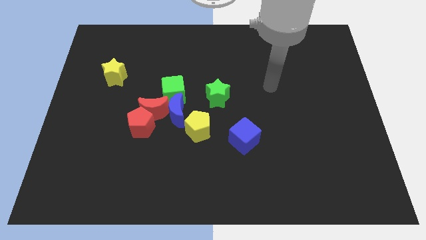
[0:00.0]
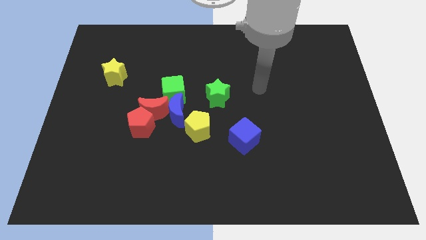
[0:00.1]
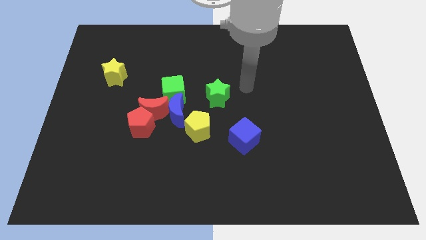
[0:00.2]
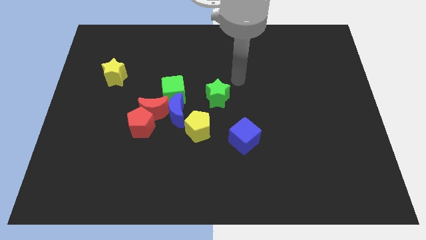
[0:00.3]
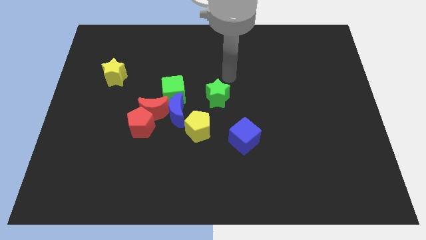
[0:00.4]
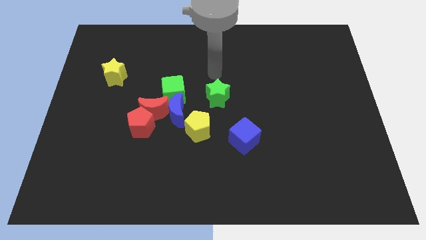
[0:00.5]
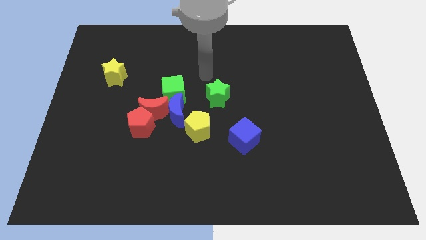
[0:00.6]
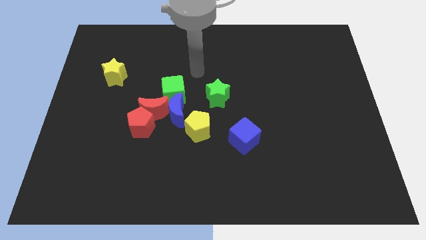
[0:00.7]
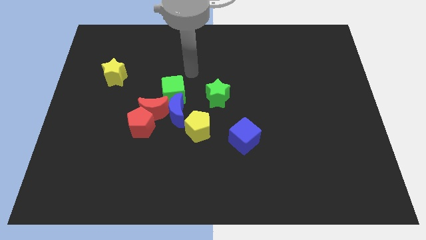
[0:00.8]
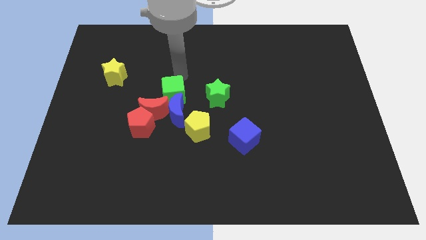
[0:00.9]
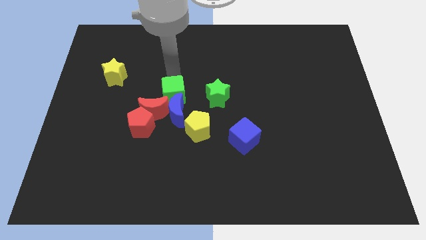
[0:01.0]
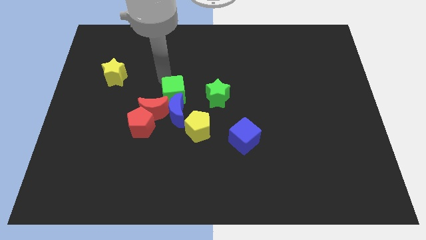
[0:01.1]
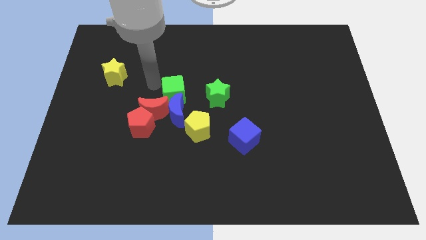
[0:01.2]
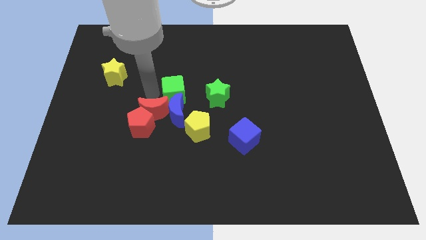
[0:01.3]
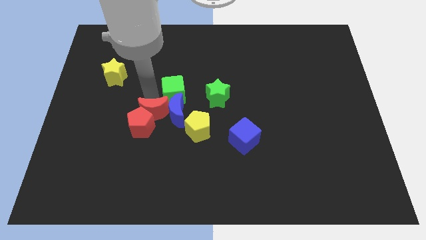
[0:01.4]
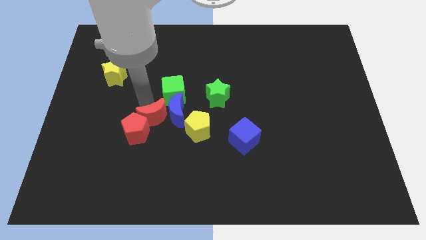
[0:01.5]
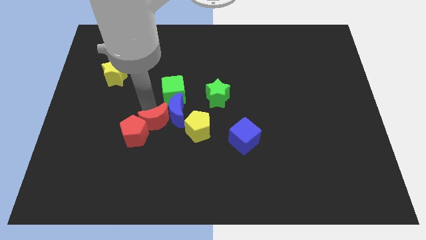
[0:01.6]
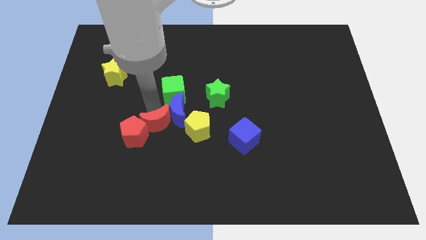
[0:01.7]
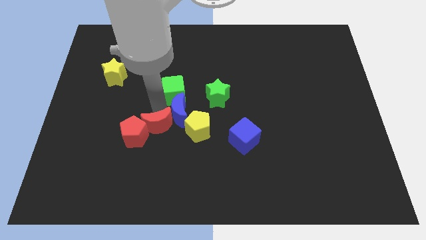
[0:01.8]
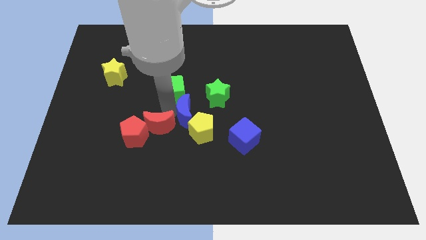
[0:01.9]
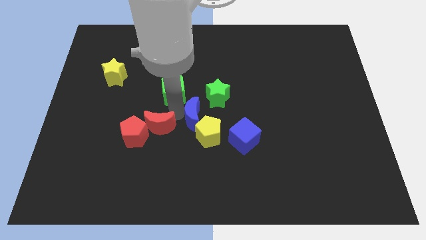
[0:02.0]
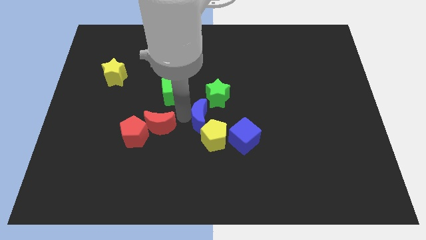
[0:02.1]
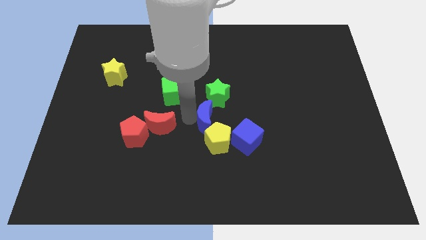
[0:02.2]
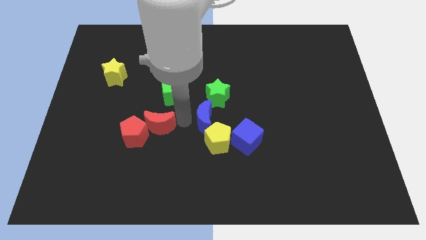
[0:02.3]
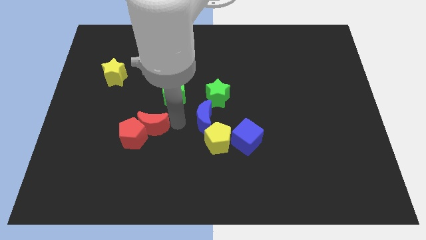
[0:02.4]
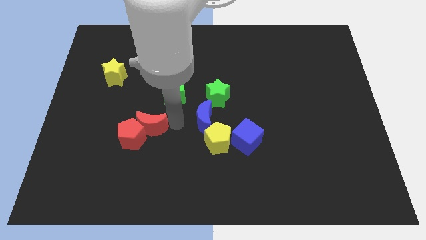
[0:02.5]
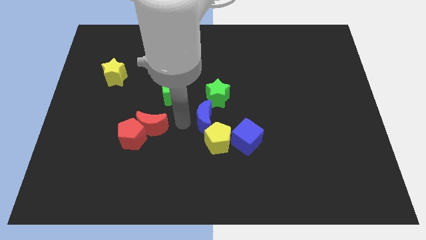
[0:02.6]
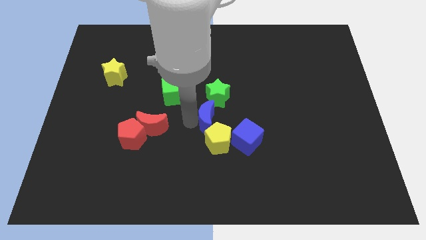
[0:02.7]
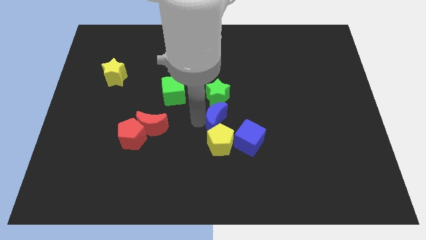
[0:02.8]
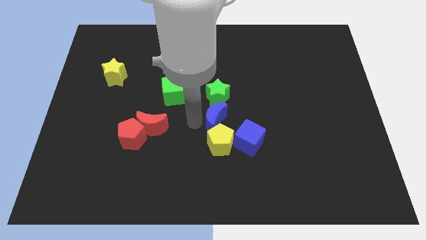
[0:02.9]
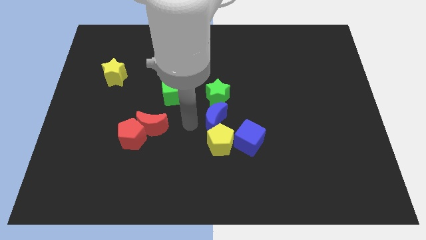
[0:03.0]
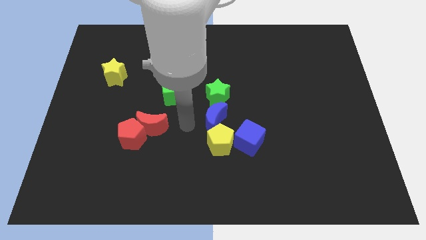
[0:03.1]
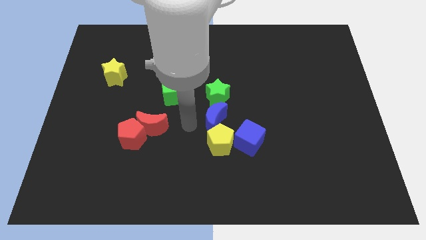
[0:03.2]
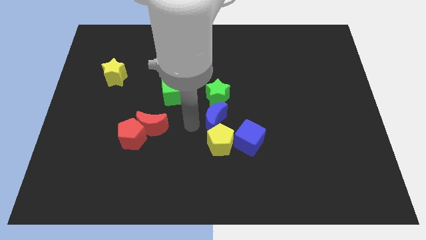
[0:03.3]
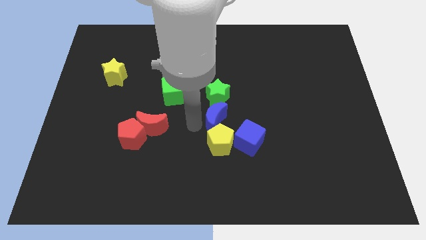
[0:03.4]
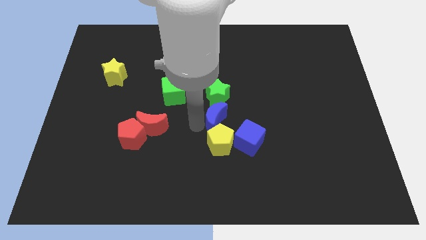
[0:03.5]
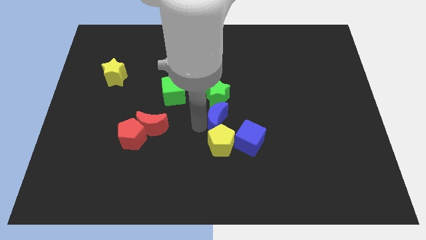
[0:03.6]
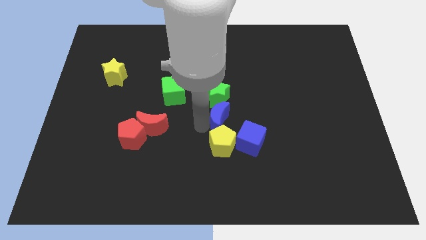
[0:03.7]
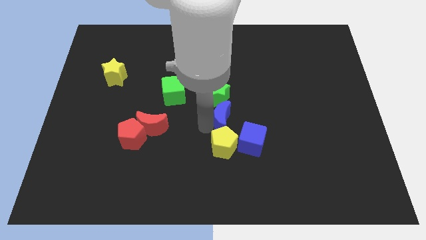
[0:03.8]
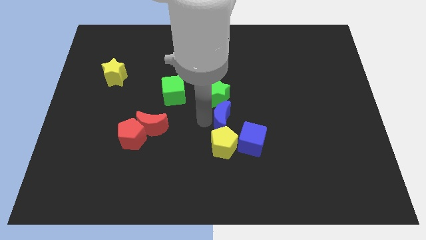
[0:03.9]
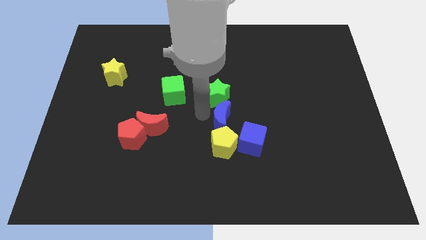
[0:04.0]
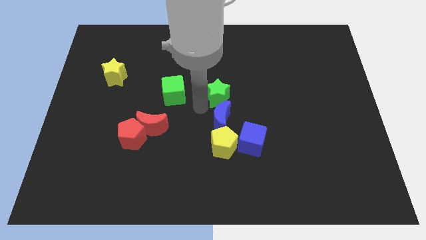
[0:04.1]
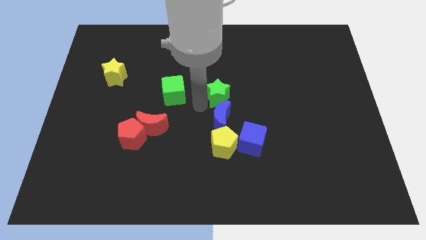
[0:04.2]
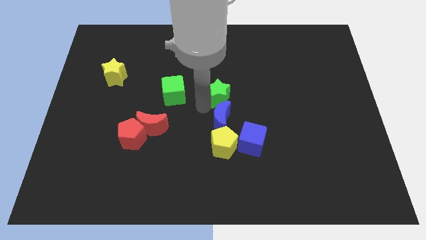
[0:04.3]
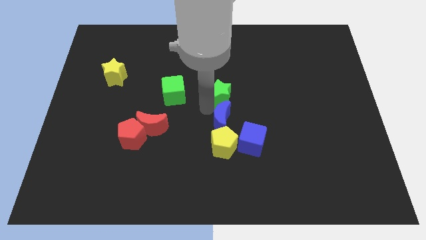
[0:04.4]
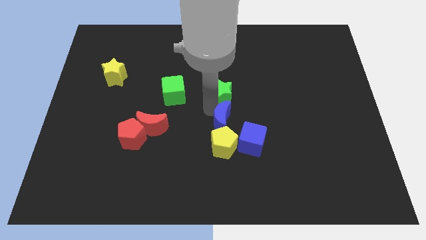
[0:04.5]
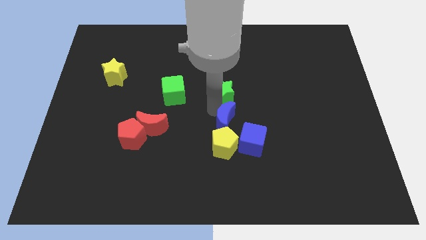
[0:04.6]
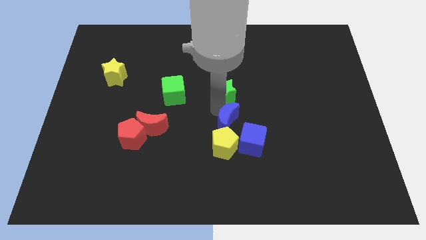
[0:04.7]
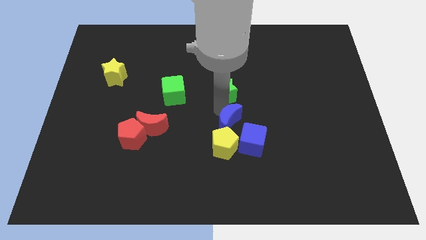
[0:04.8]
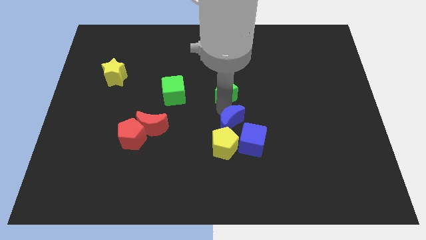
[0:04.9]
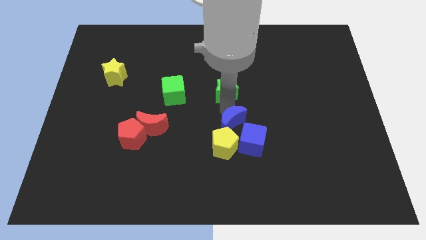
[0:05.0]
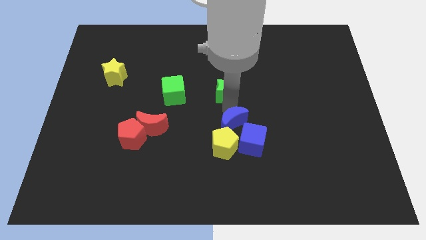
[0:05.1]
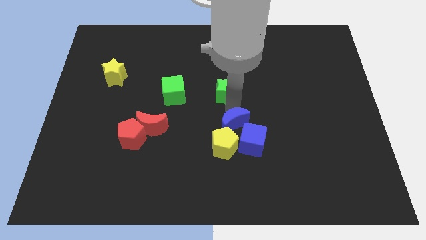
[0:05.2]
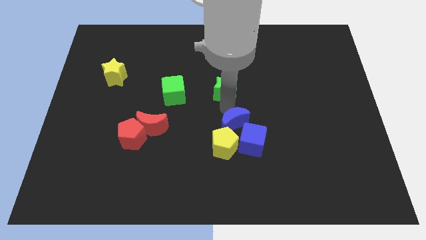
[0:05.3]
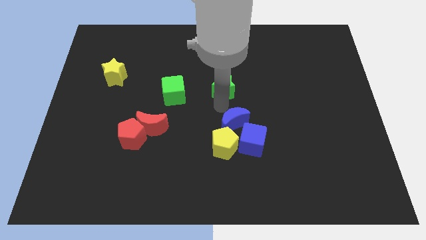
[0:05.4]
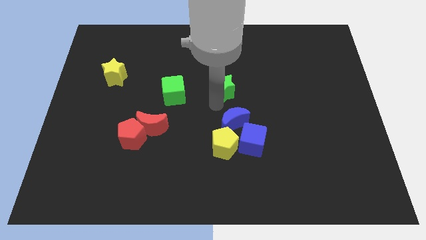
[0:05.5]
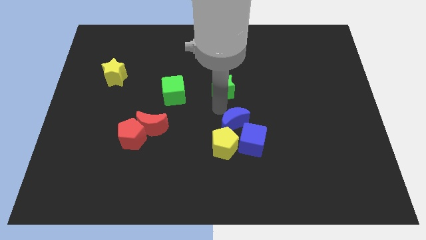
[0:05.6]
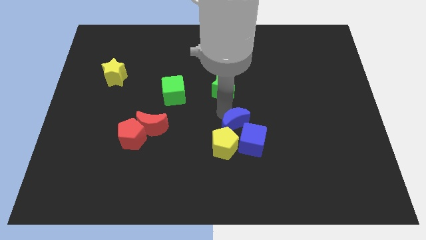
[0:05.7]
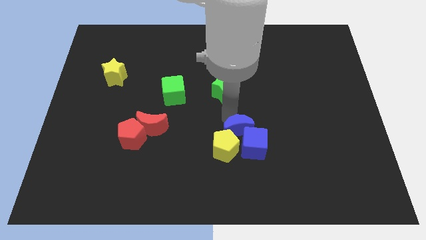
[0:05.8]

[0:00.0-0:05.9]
put the blue moon next to the blue cube

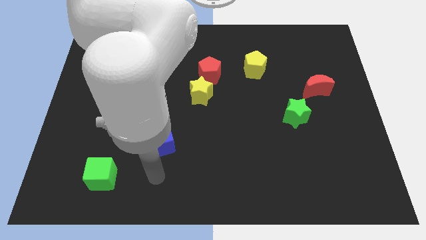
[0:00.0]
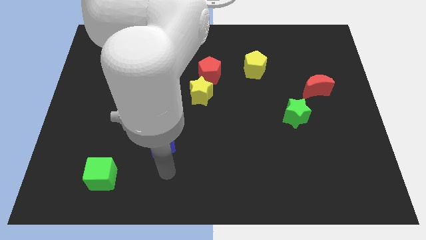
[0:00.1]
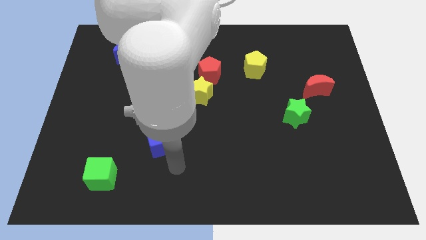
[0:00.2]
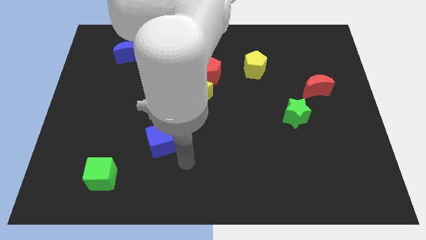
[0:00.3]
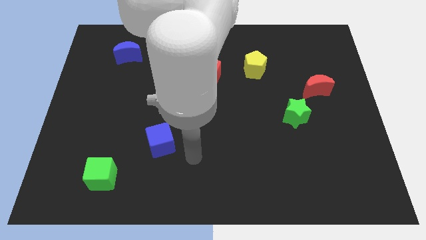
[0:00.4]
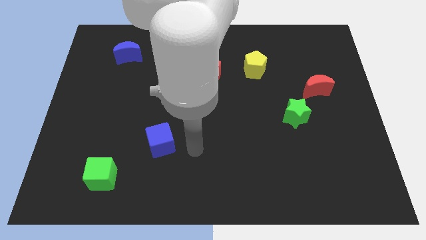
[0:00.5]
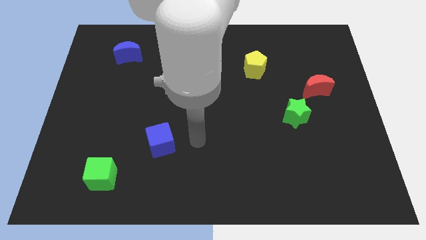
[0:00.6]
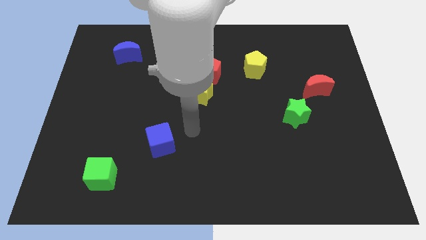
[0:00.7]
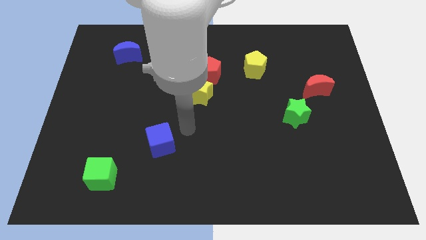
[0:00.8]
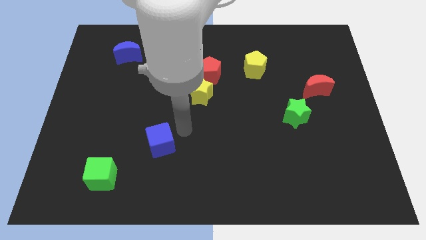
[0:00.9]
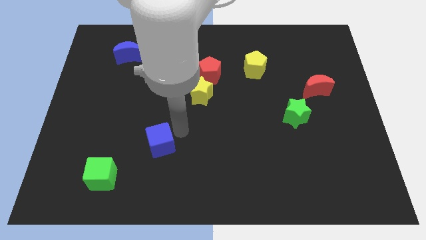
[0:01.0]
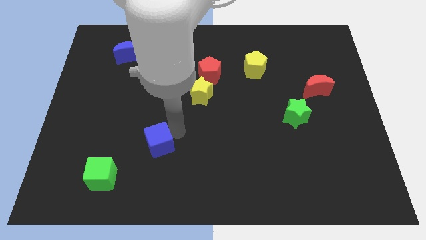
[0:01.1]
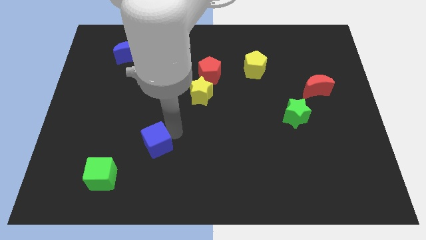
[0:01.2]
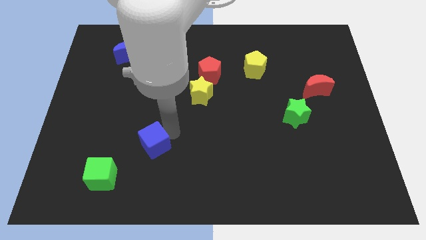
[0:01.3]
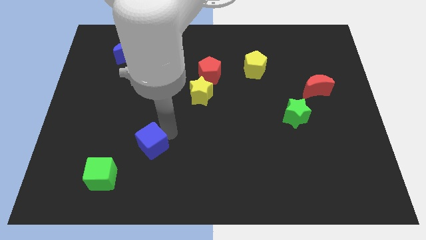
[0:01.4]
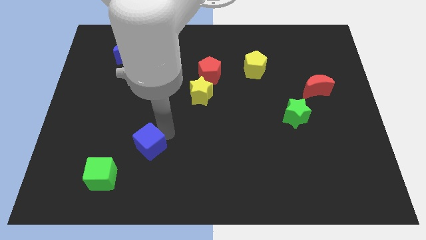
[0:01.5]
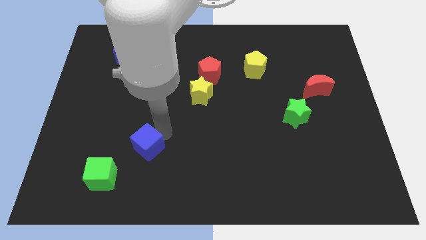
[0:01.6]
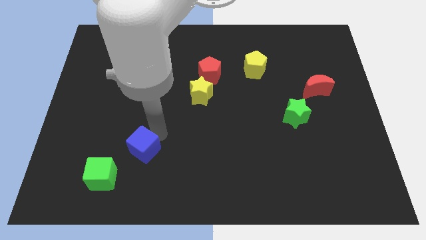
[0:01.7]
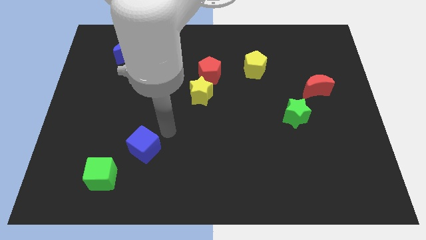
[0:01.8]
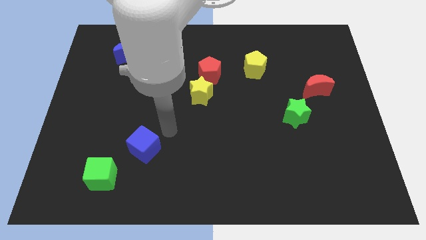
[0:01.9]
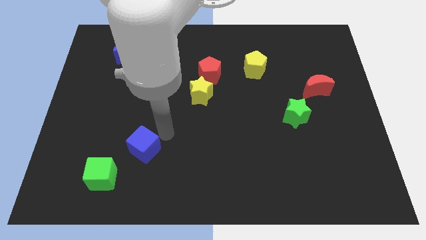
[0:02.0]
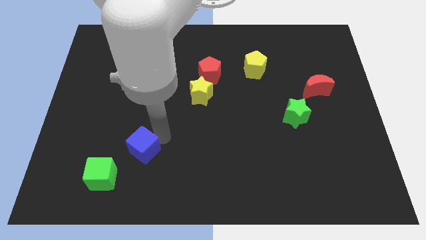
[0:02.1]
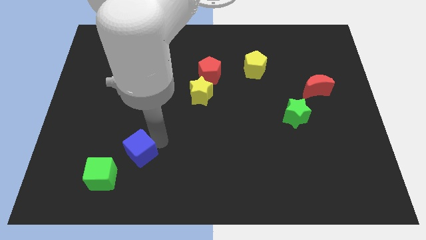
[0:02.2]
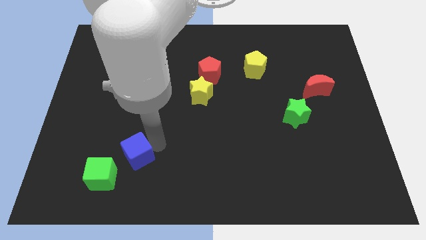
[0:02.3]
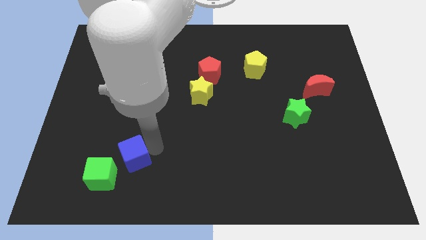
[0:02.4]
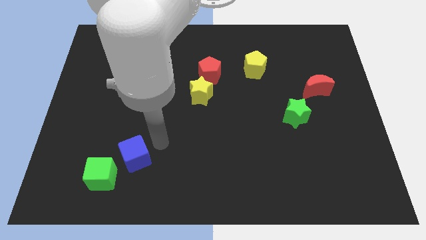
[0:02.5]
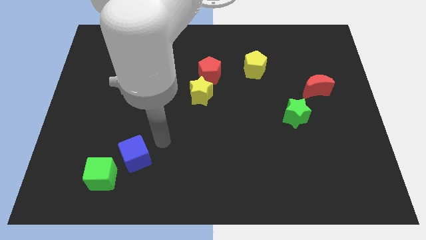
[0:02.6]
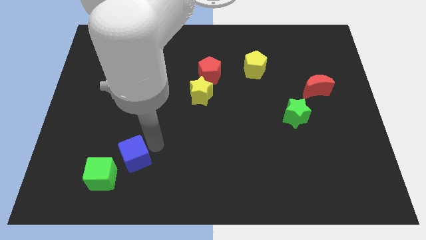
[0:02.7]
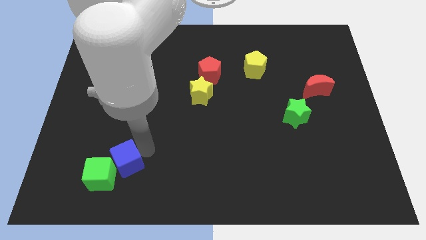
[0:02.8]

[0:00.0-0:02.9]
push the blue cube next to the green cube
